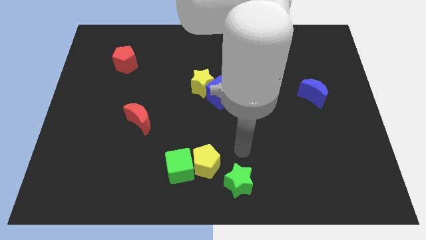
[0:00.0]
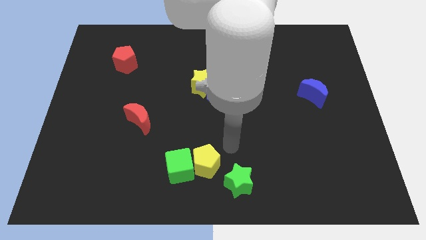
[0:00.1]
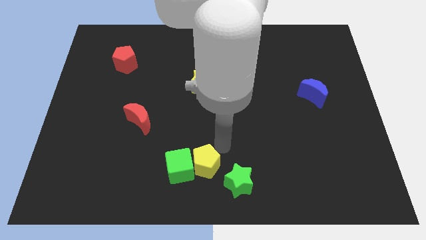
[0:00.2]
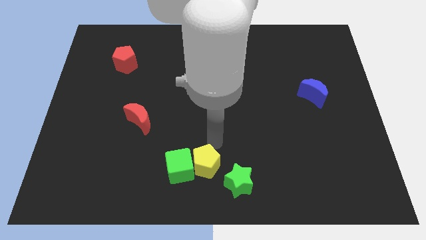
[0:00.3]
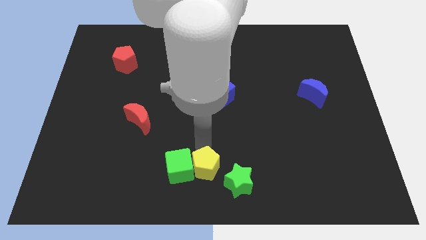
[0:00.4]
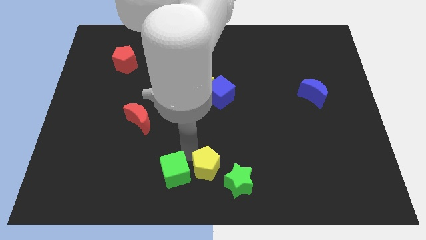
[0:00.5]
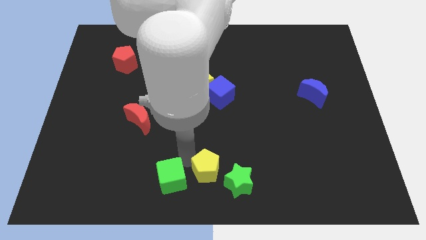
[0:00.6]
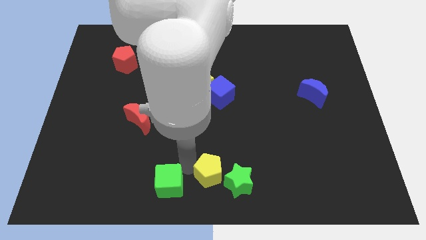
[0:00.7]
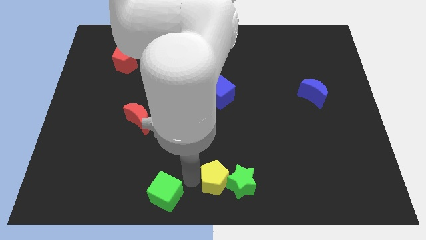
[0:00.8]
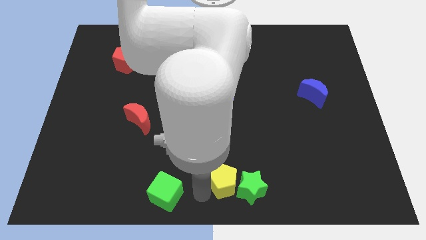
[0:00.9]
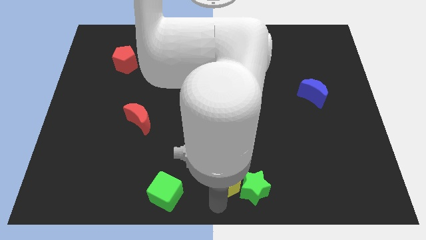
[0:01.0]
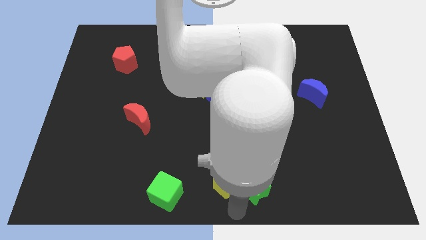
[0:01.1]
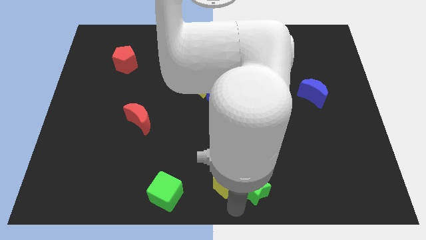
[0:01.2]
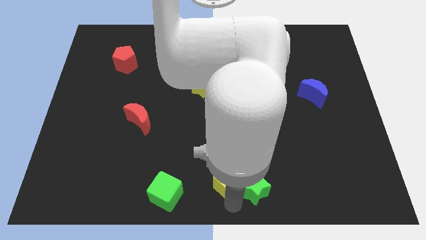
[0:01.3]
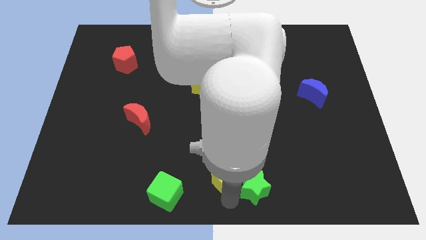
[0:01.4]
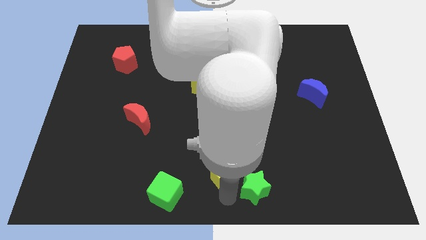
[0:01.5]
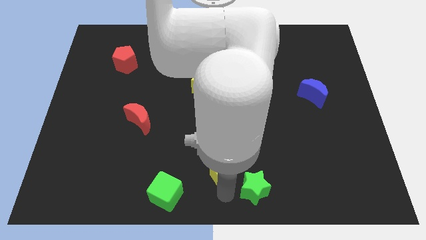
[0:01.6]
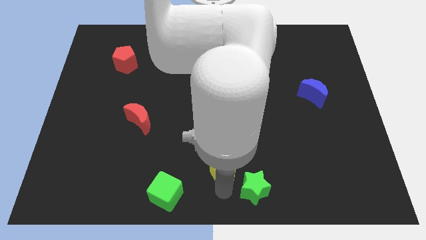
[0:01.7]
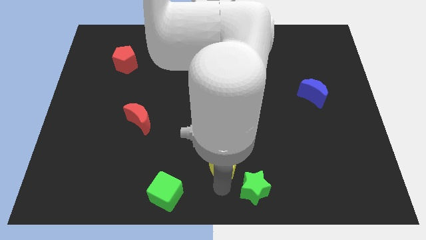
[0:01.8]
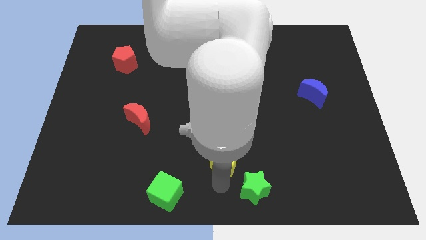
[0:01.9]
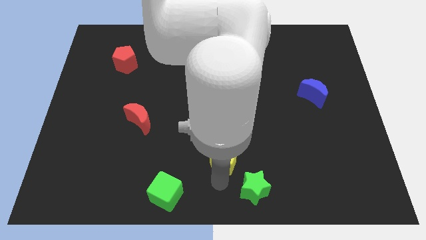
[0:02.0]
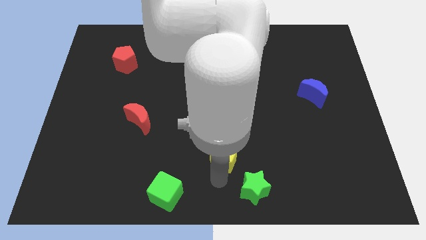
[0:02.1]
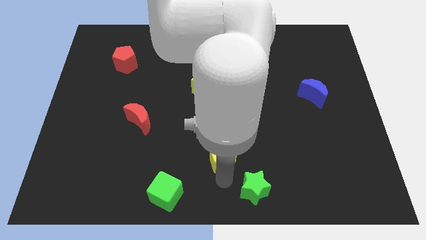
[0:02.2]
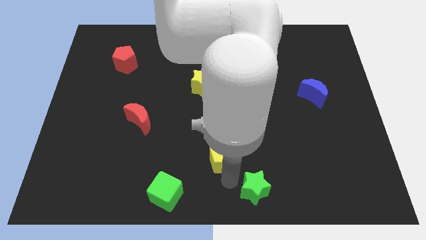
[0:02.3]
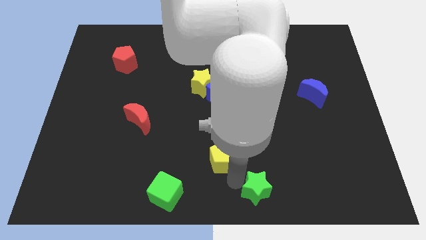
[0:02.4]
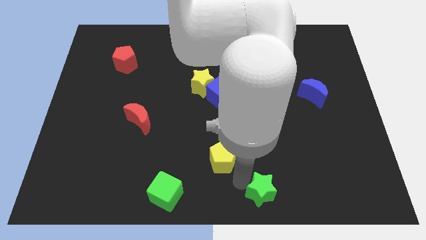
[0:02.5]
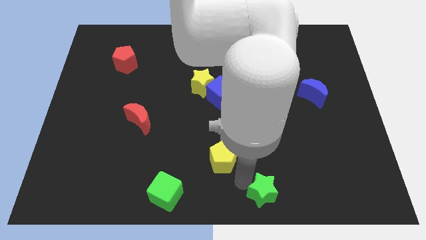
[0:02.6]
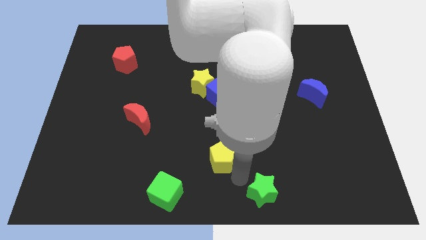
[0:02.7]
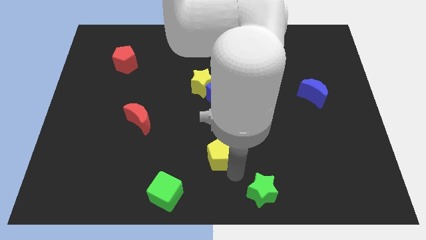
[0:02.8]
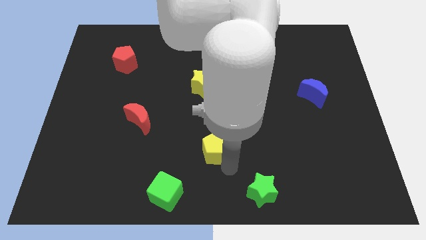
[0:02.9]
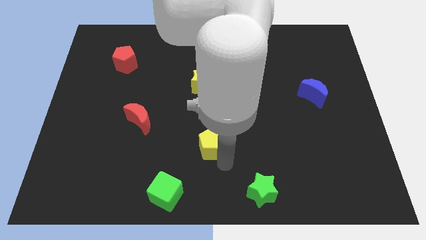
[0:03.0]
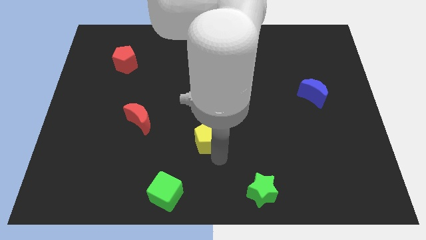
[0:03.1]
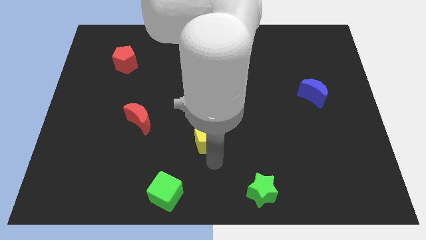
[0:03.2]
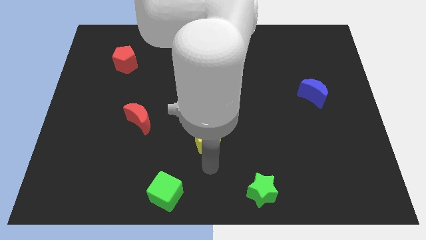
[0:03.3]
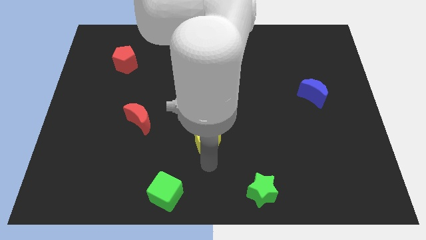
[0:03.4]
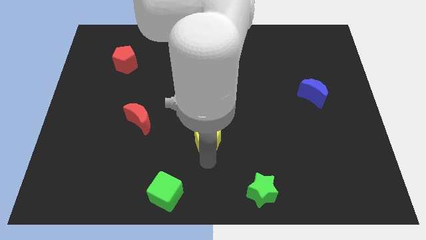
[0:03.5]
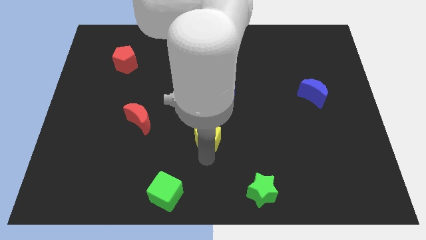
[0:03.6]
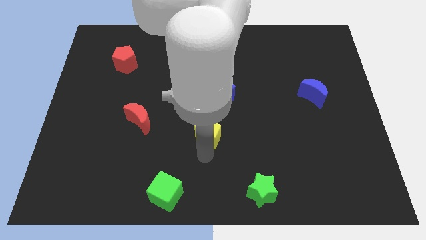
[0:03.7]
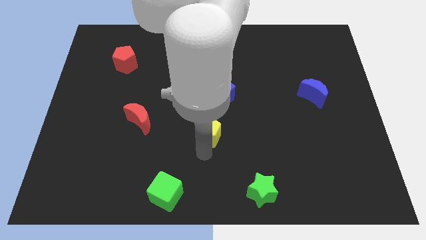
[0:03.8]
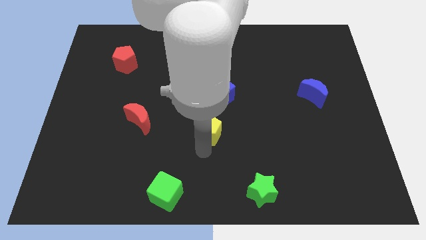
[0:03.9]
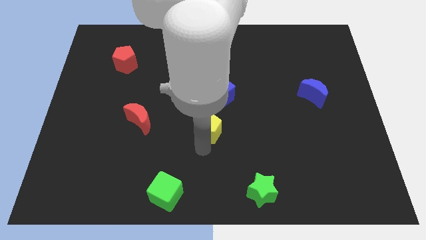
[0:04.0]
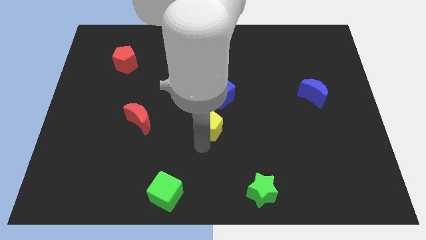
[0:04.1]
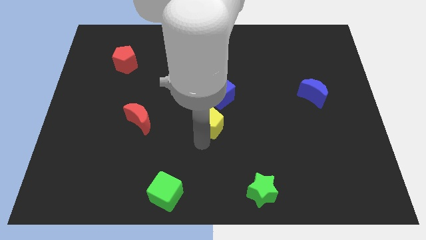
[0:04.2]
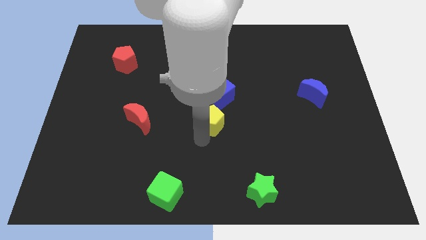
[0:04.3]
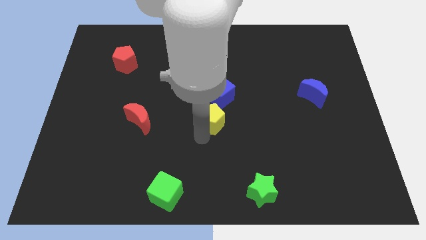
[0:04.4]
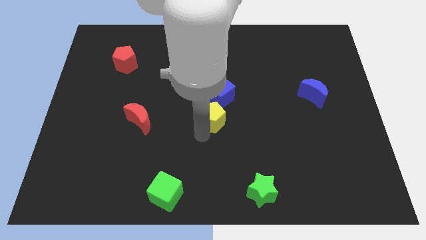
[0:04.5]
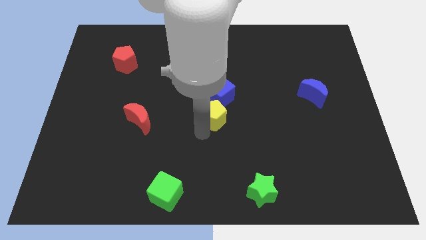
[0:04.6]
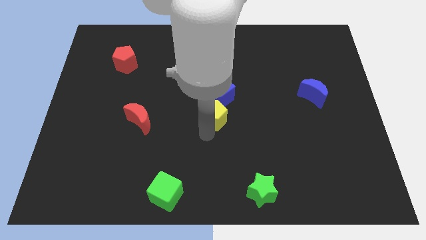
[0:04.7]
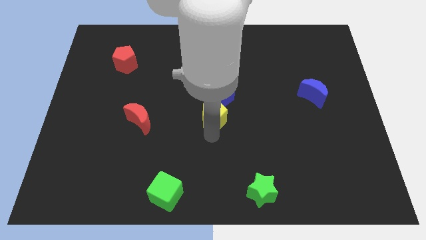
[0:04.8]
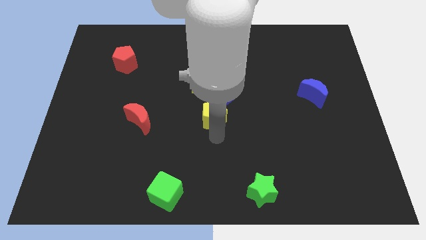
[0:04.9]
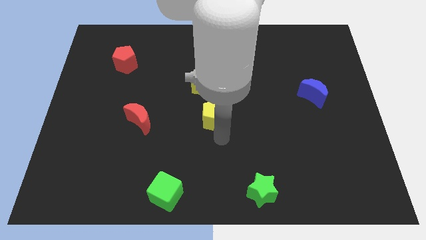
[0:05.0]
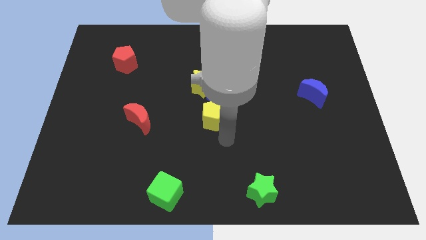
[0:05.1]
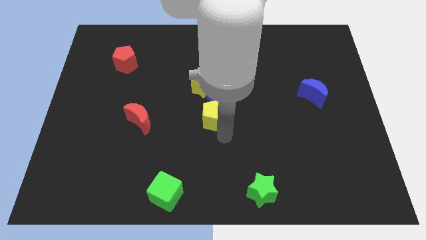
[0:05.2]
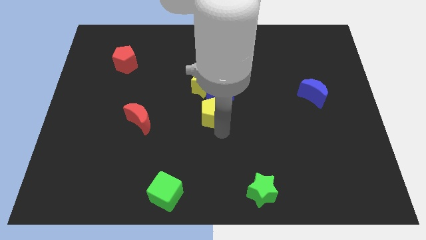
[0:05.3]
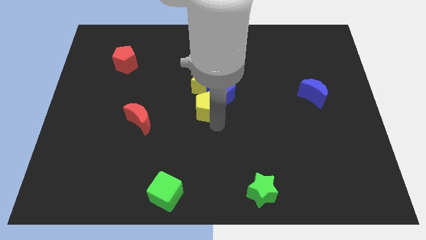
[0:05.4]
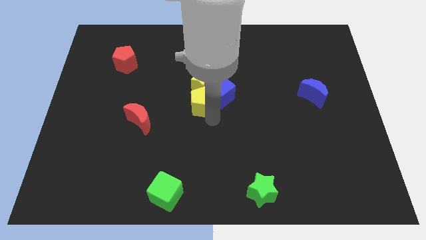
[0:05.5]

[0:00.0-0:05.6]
move the yellow pentagon next to the yellow star

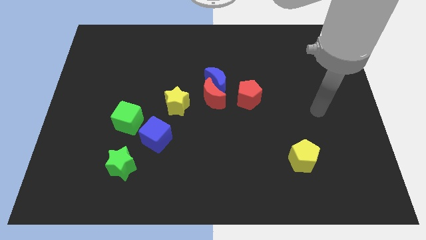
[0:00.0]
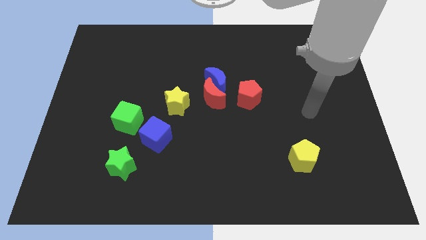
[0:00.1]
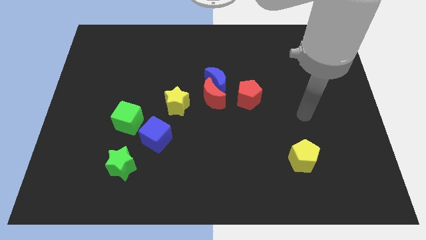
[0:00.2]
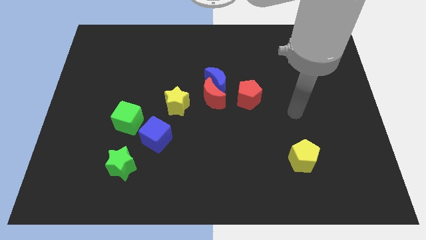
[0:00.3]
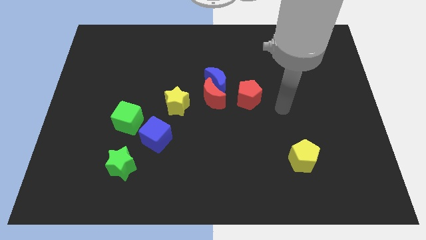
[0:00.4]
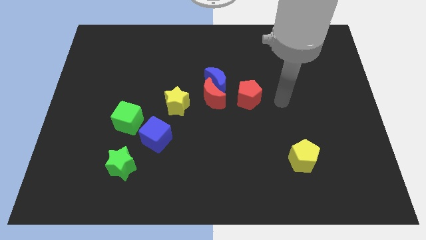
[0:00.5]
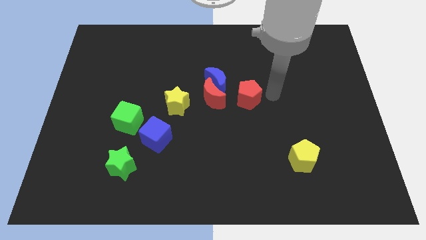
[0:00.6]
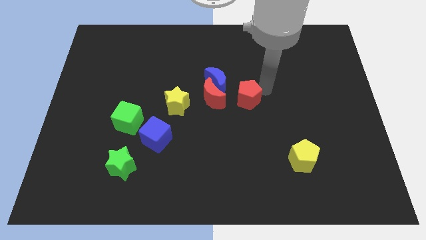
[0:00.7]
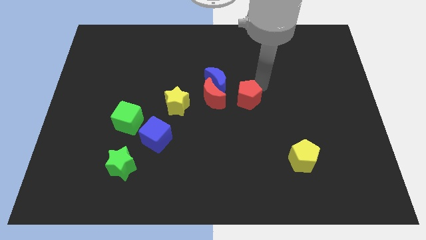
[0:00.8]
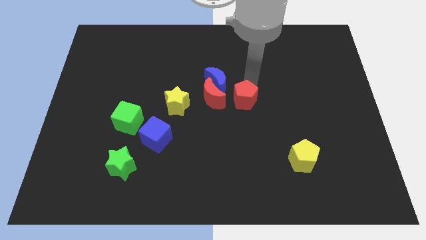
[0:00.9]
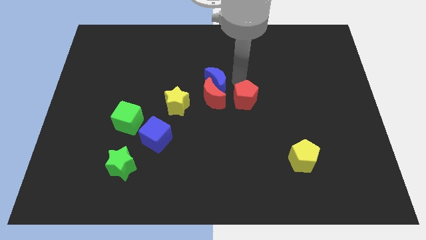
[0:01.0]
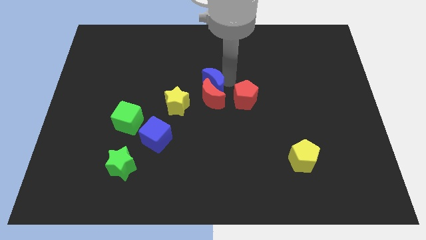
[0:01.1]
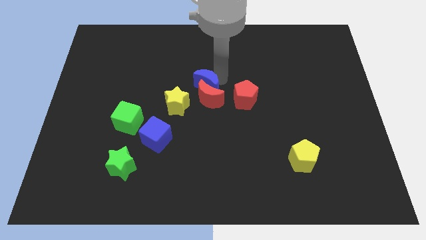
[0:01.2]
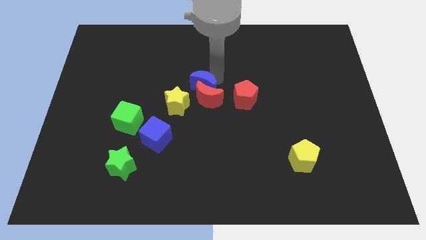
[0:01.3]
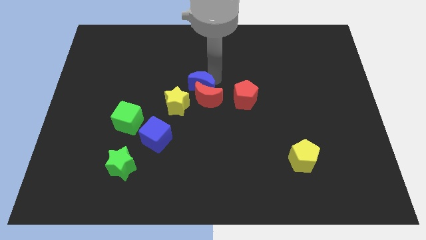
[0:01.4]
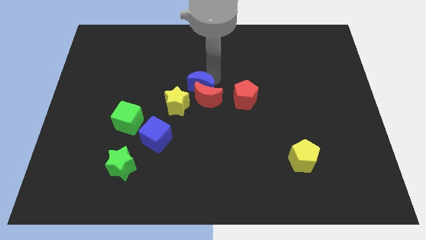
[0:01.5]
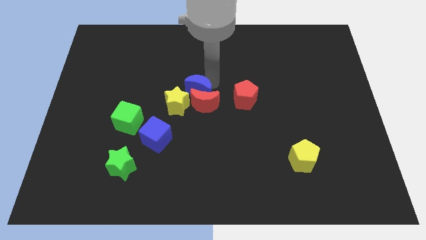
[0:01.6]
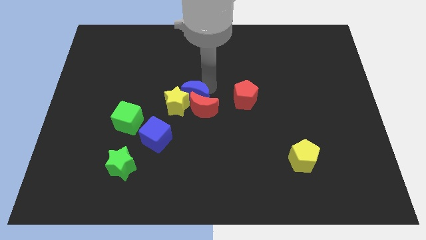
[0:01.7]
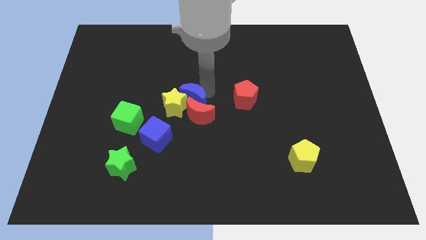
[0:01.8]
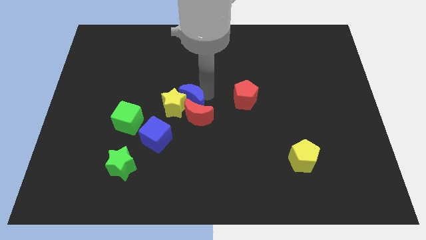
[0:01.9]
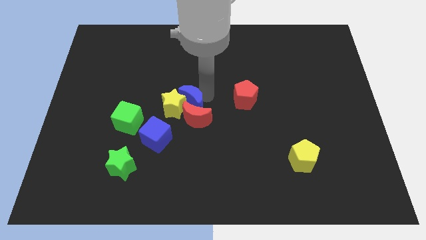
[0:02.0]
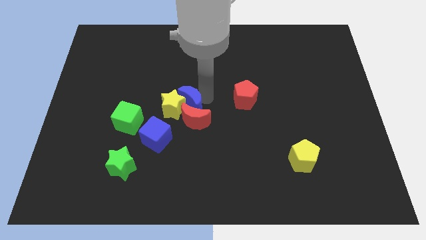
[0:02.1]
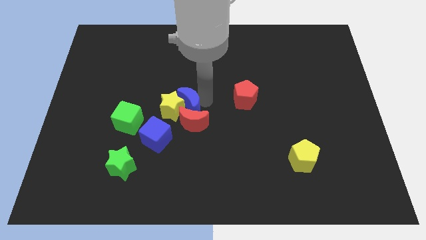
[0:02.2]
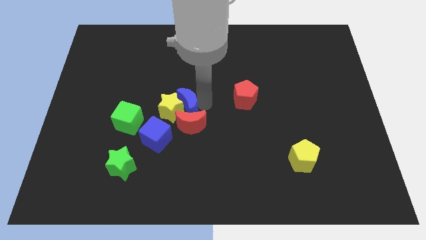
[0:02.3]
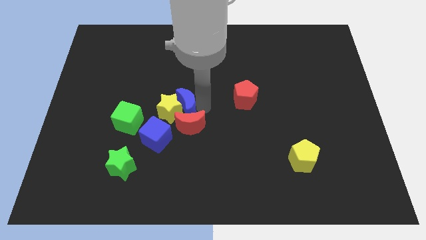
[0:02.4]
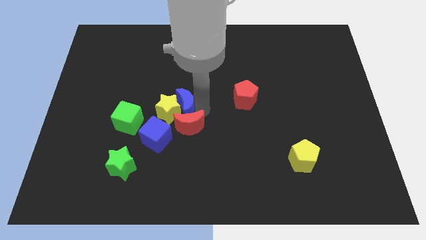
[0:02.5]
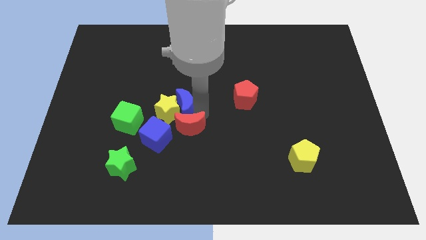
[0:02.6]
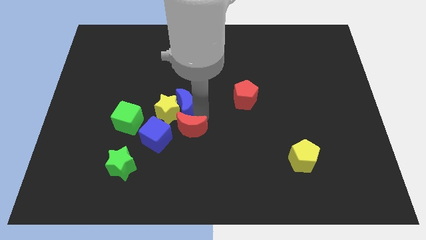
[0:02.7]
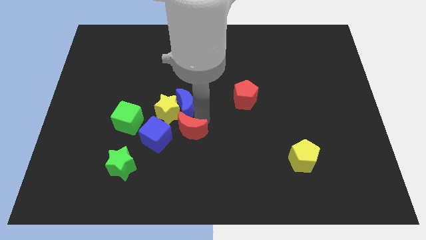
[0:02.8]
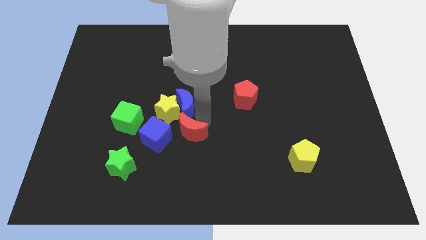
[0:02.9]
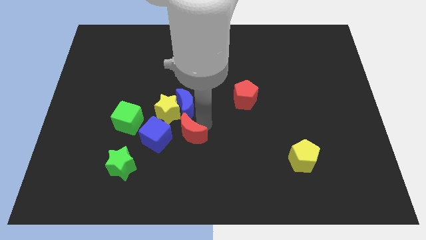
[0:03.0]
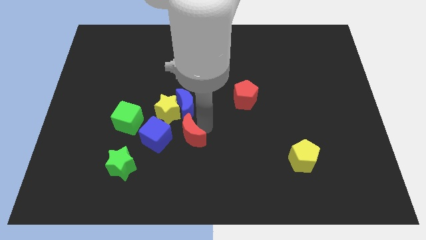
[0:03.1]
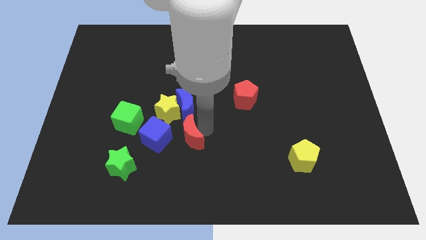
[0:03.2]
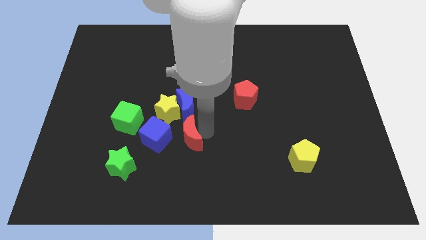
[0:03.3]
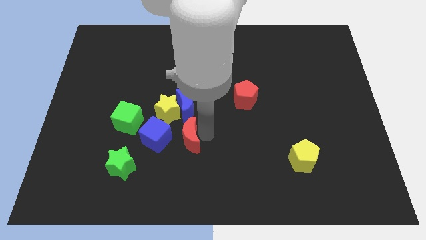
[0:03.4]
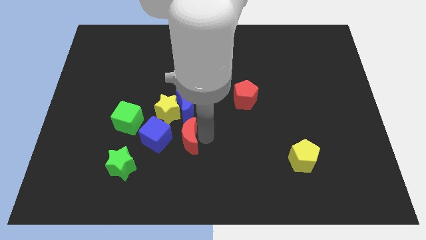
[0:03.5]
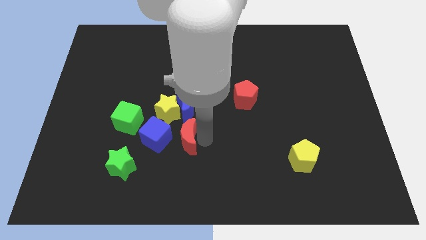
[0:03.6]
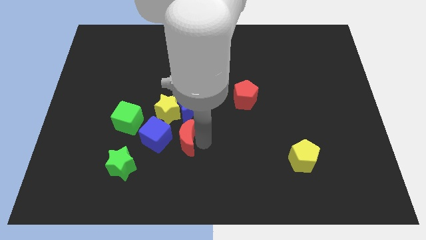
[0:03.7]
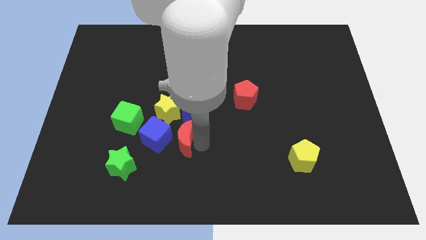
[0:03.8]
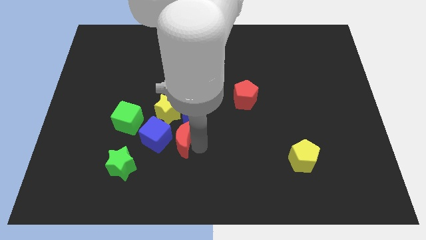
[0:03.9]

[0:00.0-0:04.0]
slide the red moon next to the blue cube
